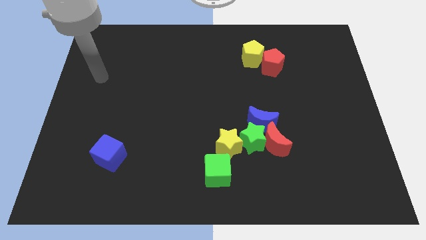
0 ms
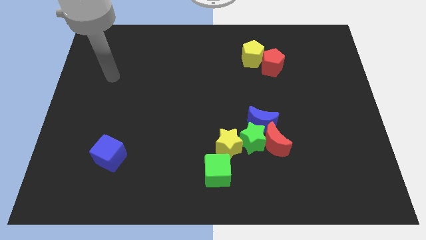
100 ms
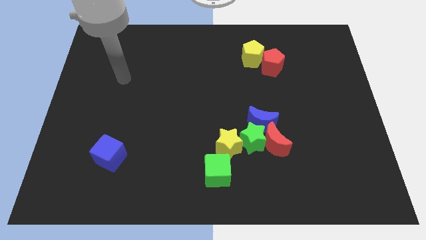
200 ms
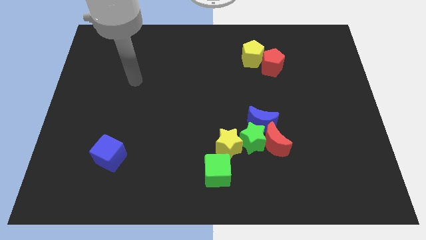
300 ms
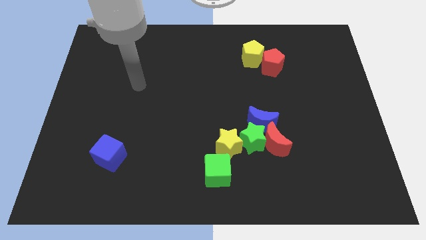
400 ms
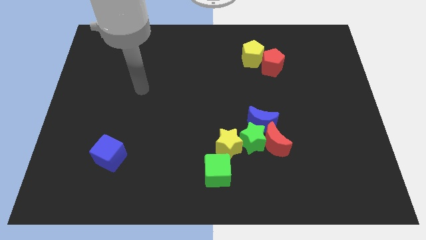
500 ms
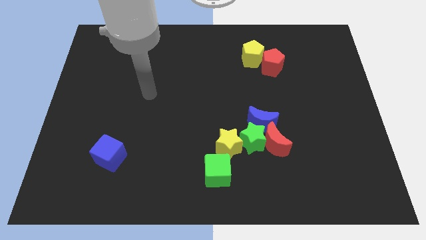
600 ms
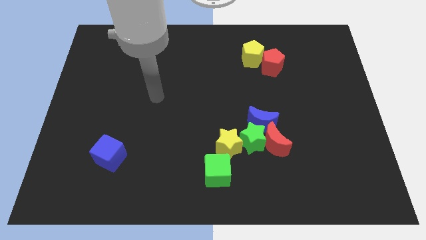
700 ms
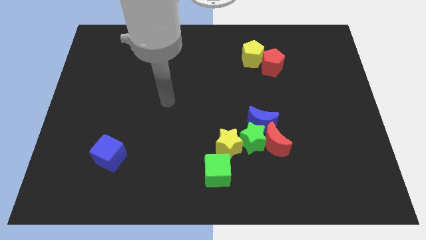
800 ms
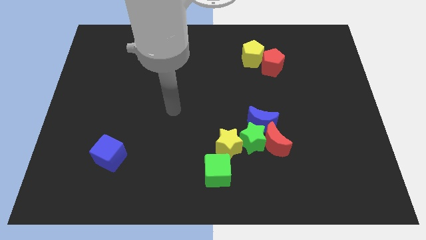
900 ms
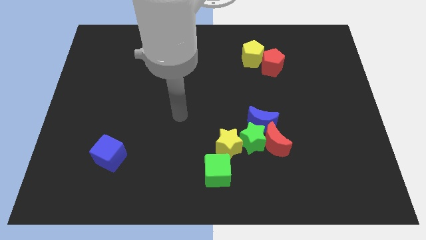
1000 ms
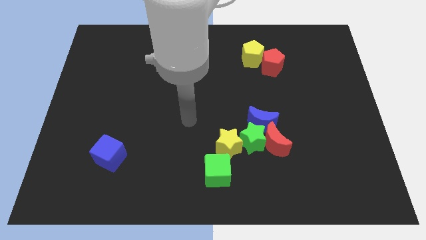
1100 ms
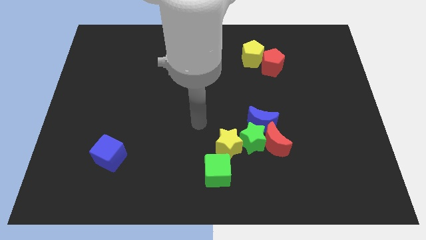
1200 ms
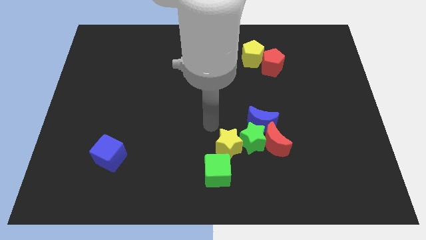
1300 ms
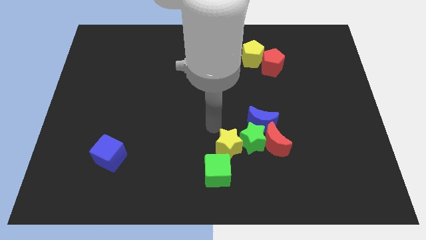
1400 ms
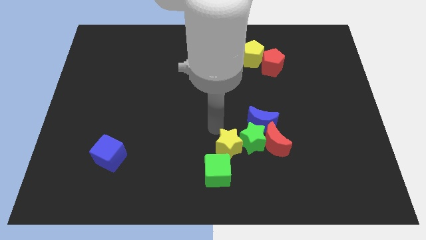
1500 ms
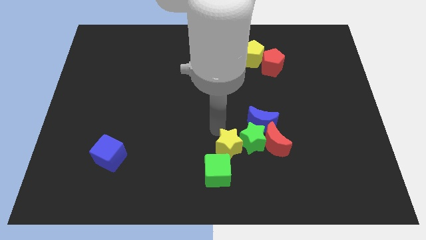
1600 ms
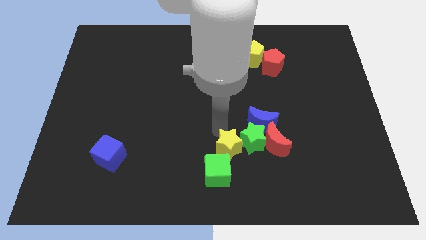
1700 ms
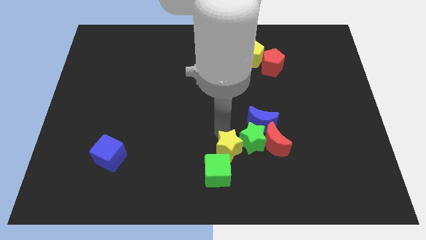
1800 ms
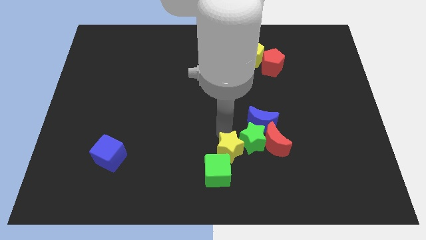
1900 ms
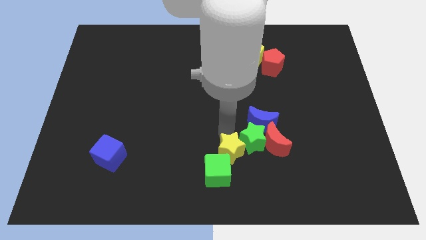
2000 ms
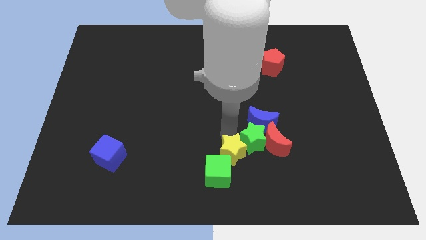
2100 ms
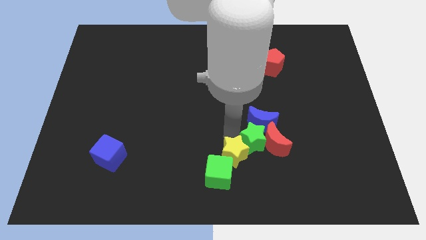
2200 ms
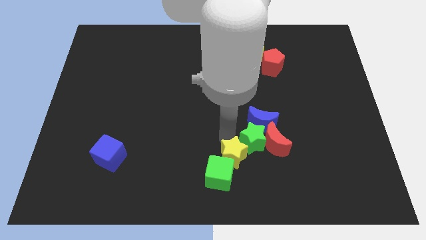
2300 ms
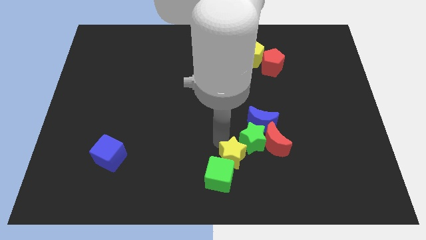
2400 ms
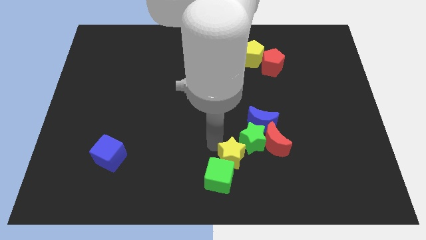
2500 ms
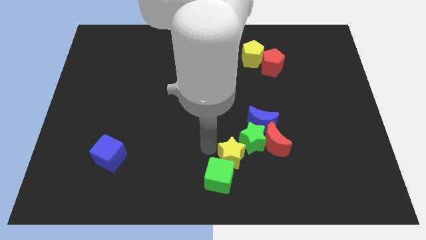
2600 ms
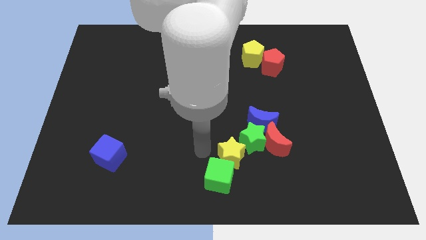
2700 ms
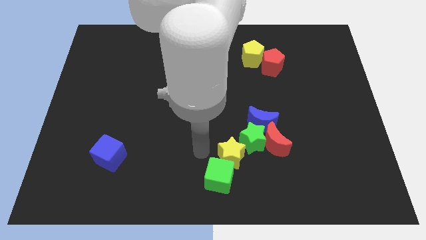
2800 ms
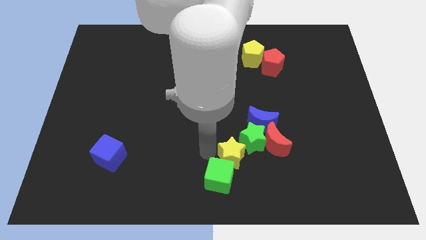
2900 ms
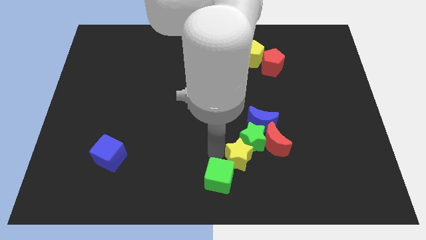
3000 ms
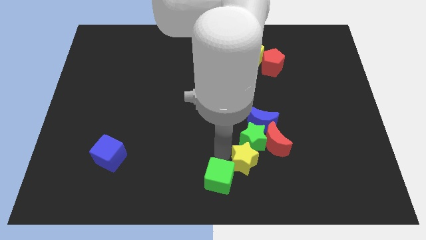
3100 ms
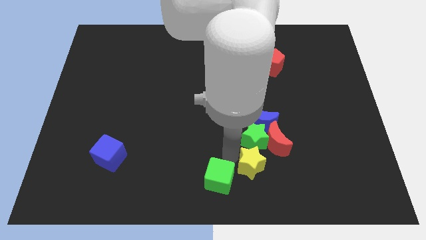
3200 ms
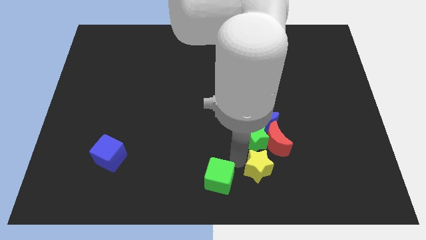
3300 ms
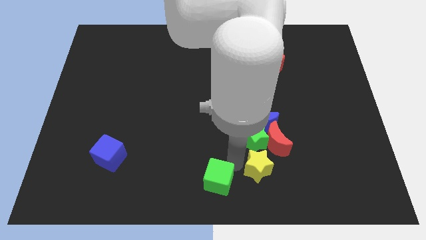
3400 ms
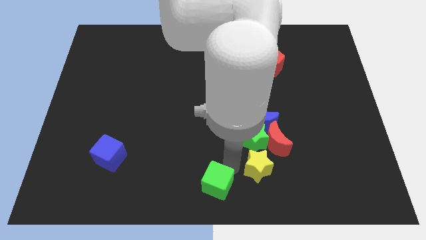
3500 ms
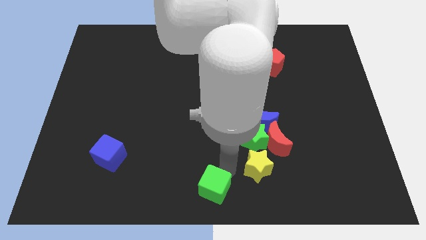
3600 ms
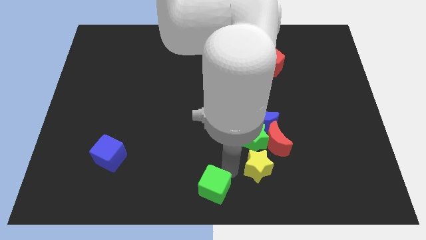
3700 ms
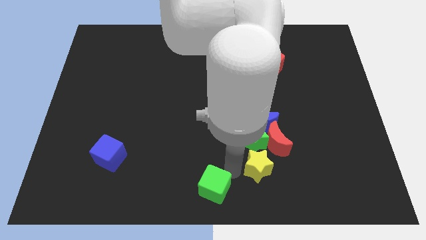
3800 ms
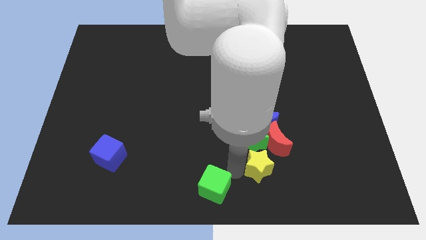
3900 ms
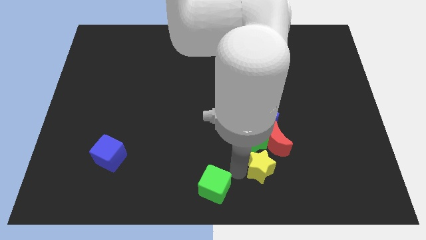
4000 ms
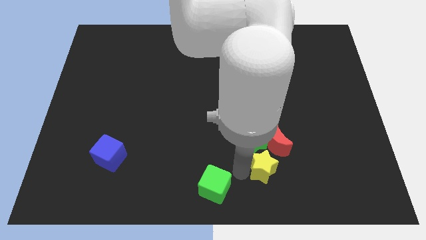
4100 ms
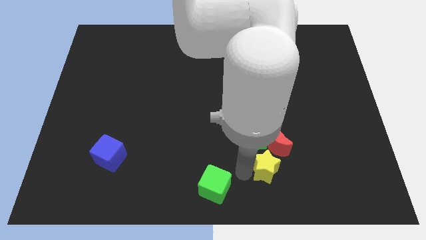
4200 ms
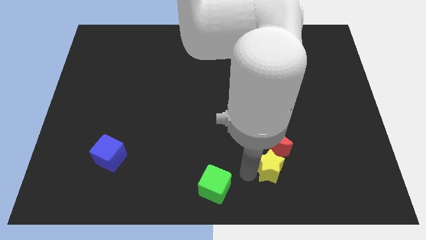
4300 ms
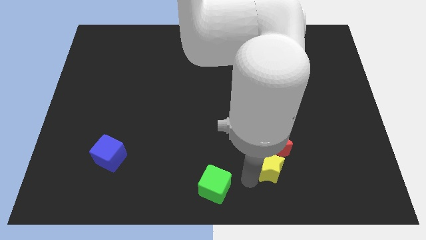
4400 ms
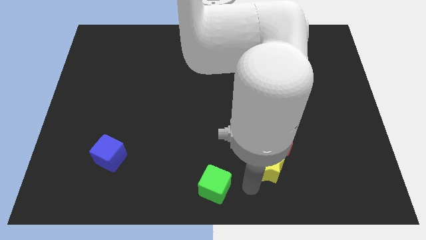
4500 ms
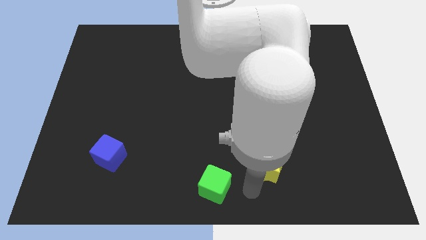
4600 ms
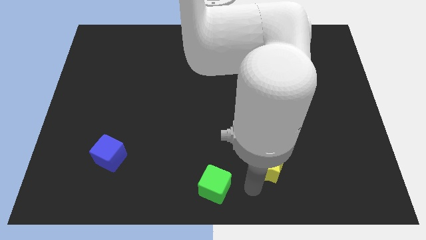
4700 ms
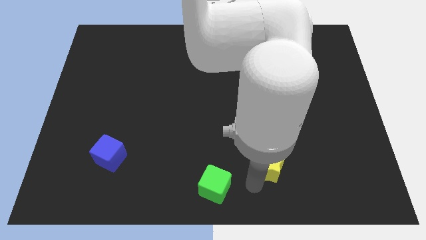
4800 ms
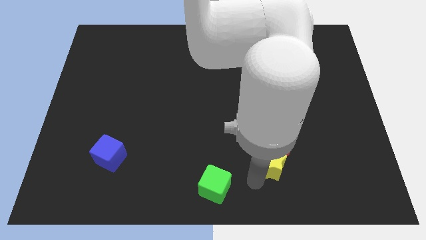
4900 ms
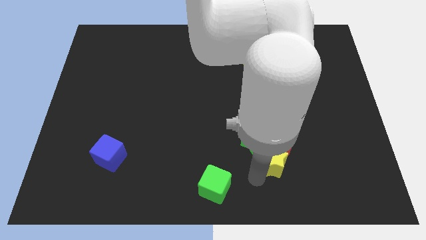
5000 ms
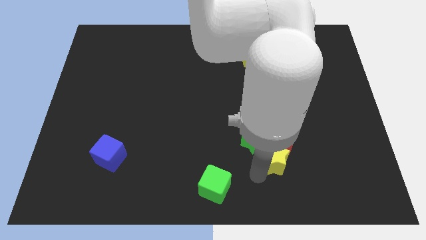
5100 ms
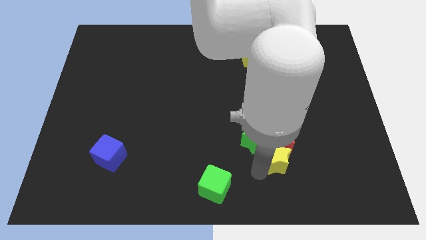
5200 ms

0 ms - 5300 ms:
put the yellow star to the bottom right of the blue moon

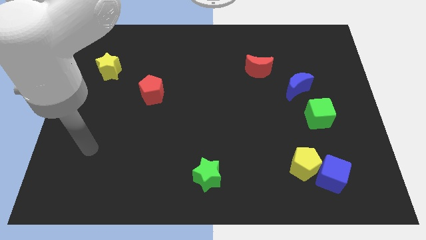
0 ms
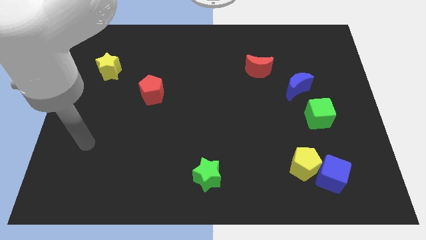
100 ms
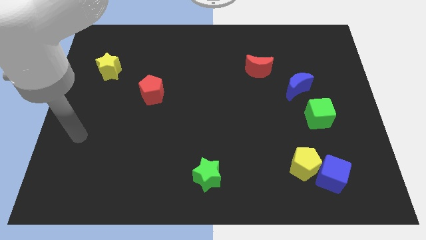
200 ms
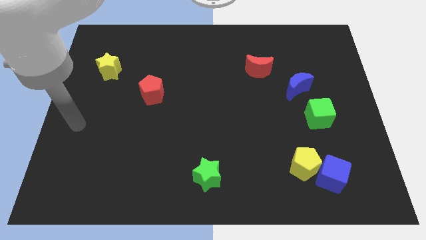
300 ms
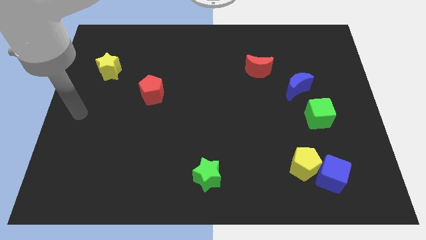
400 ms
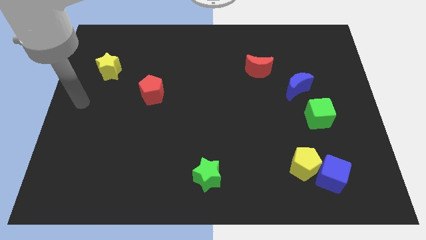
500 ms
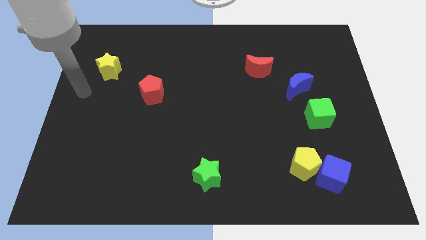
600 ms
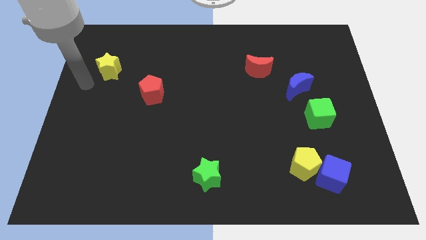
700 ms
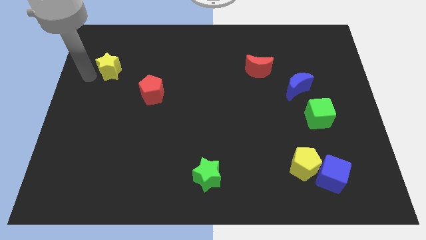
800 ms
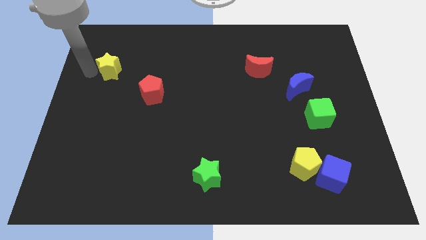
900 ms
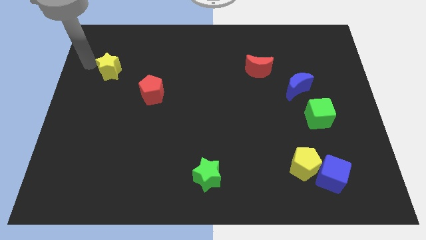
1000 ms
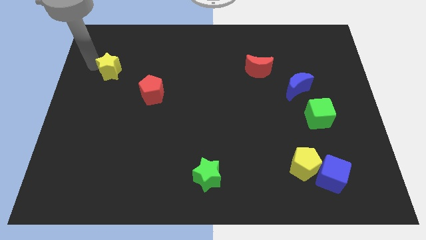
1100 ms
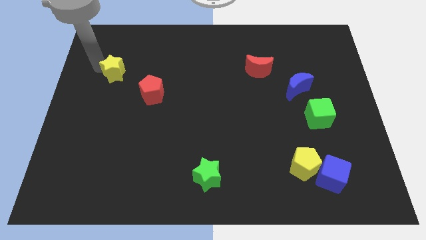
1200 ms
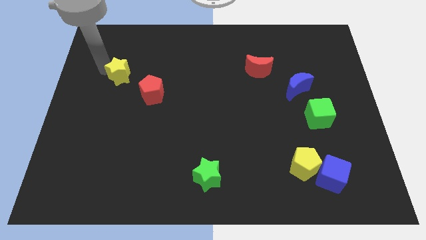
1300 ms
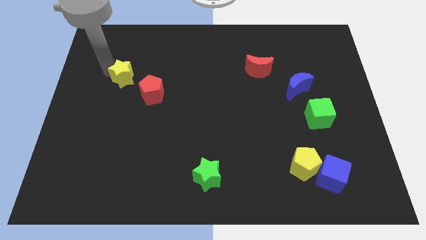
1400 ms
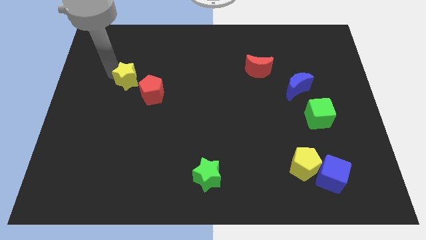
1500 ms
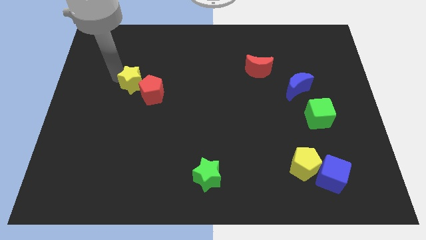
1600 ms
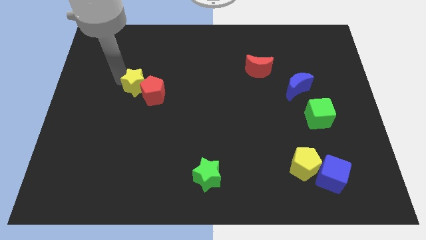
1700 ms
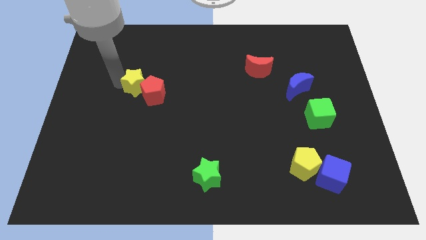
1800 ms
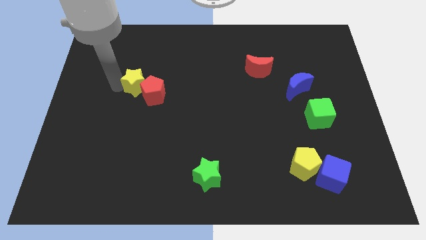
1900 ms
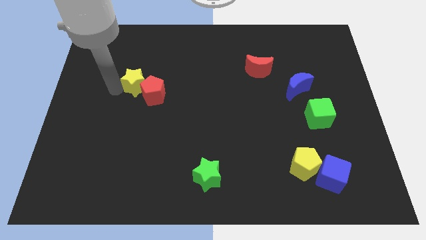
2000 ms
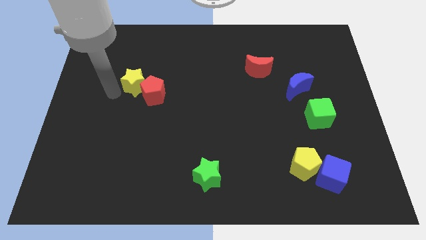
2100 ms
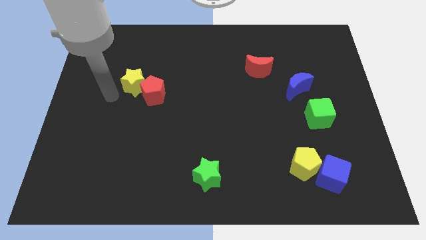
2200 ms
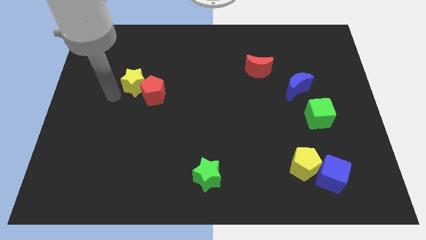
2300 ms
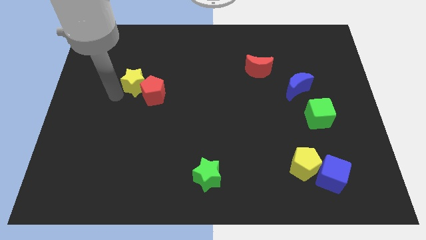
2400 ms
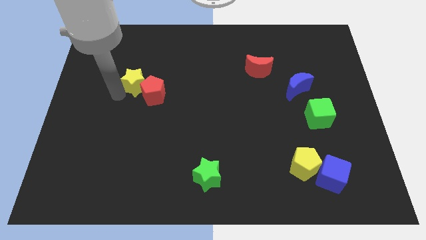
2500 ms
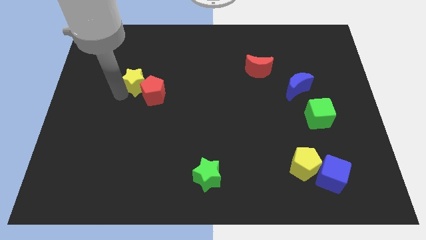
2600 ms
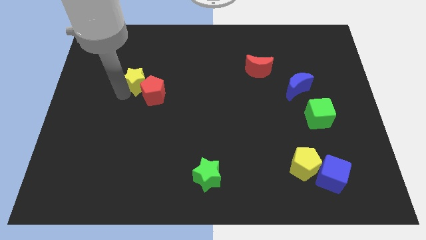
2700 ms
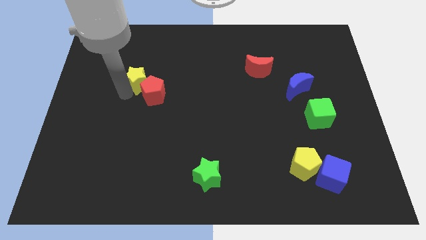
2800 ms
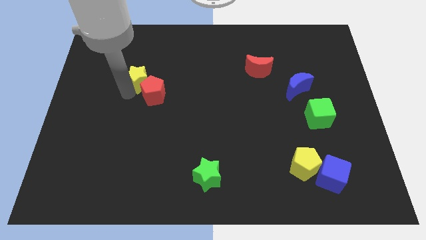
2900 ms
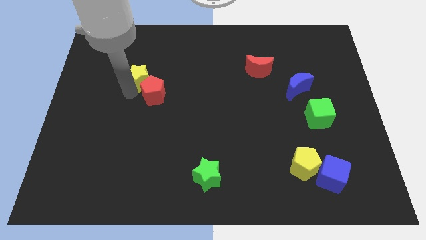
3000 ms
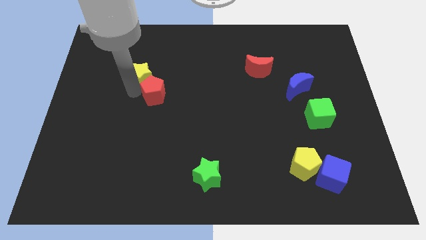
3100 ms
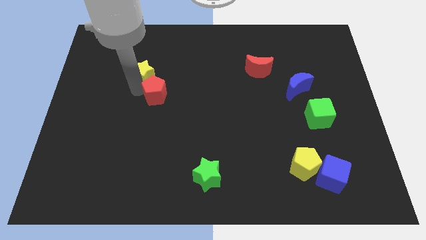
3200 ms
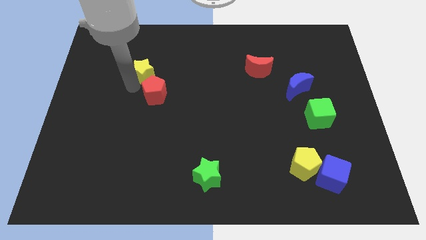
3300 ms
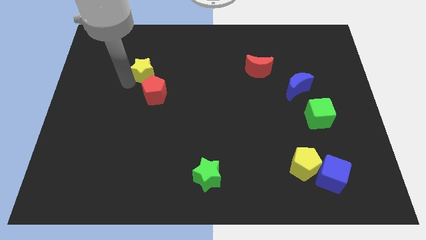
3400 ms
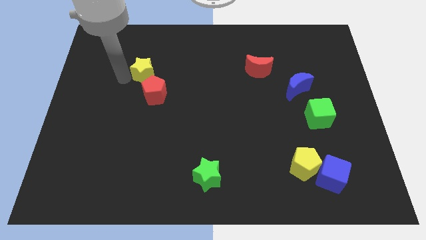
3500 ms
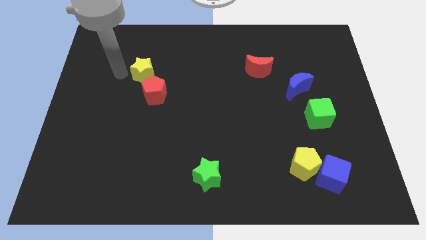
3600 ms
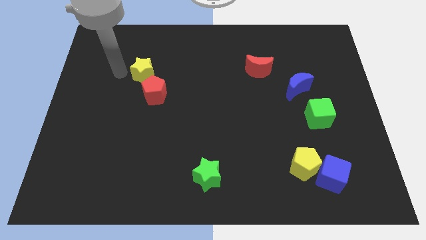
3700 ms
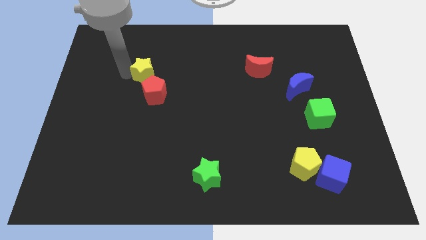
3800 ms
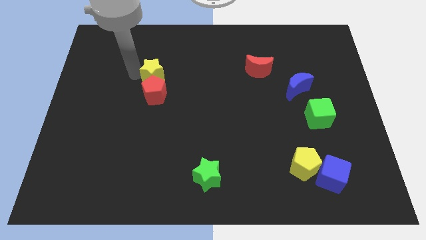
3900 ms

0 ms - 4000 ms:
push the yellow star diagonally up and to the right of the red pentagon
